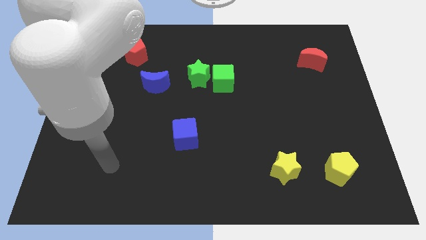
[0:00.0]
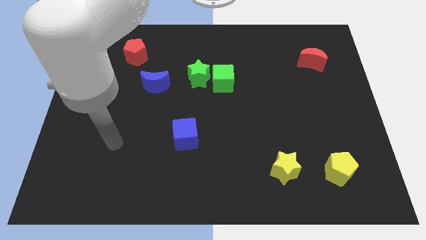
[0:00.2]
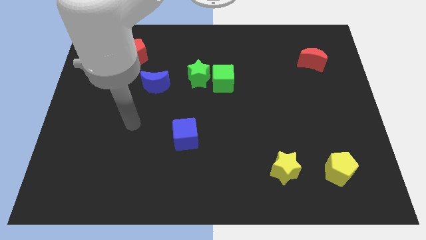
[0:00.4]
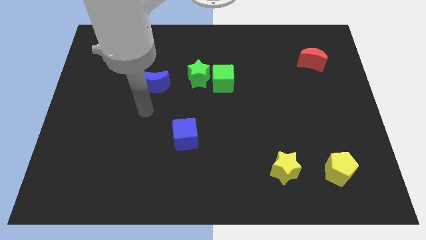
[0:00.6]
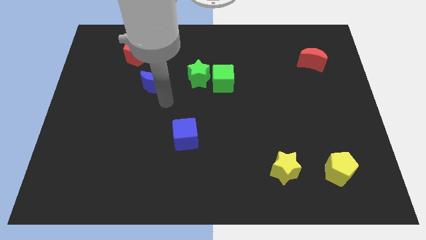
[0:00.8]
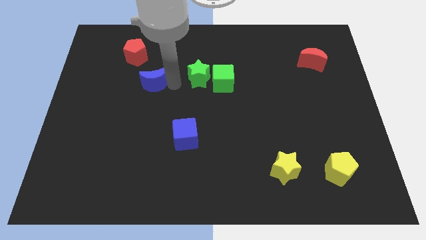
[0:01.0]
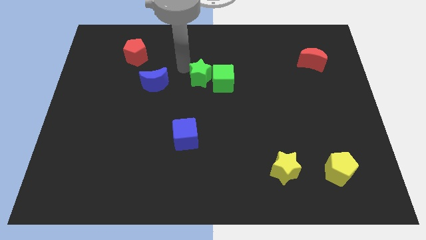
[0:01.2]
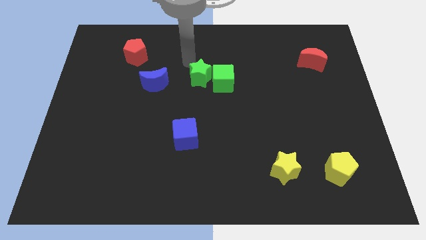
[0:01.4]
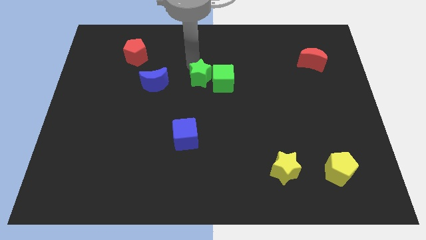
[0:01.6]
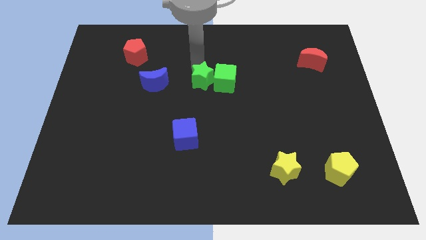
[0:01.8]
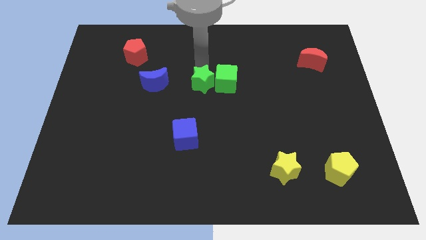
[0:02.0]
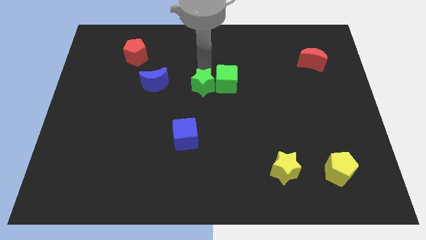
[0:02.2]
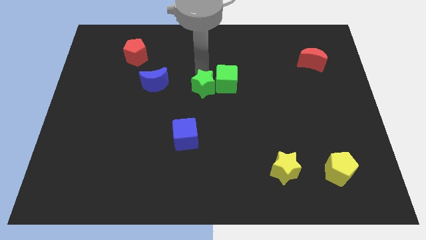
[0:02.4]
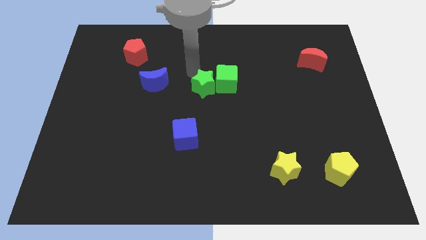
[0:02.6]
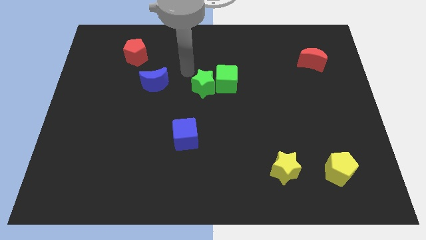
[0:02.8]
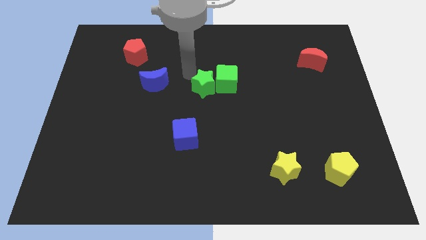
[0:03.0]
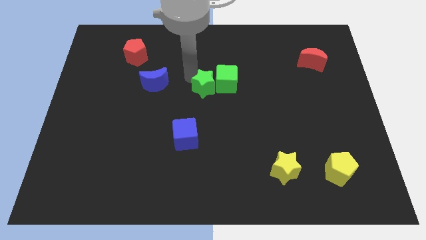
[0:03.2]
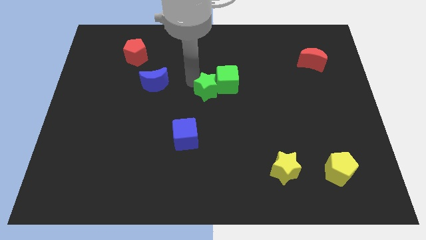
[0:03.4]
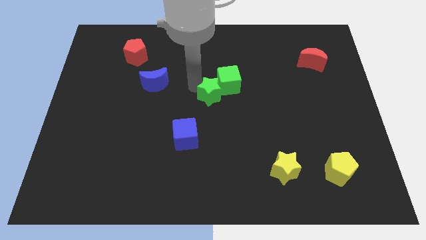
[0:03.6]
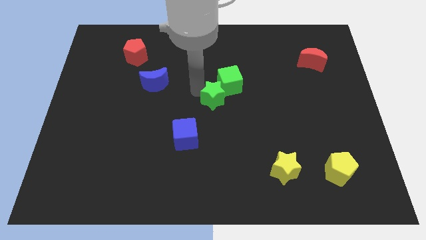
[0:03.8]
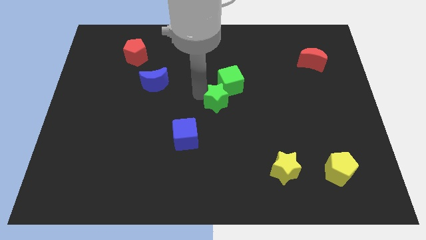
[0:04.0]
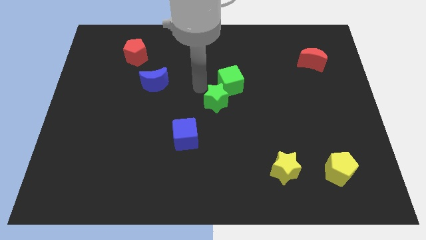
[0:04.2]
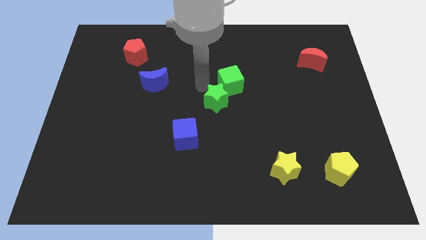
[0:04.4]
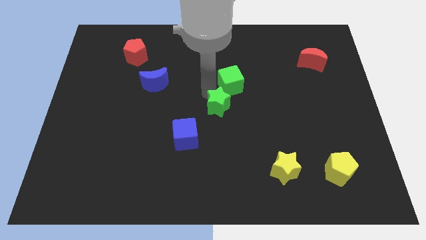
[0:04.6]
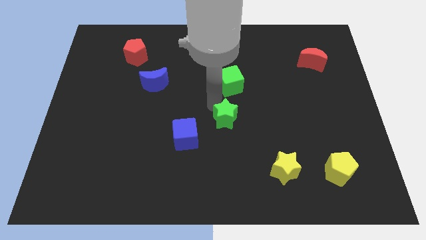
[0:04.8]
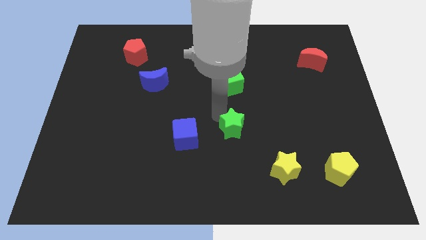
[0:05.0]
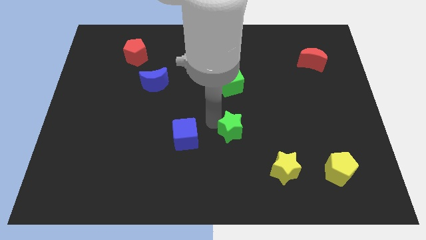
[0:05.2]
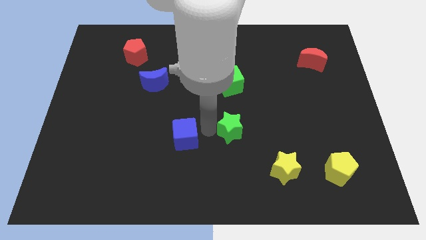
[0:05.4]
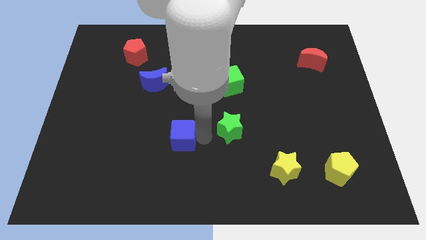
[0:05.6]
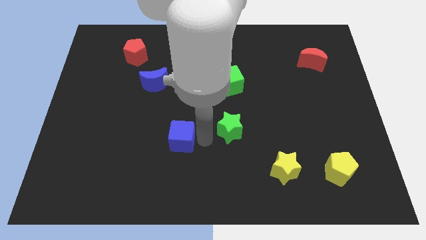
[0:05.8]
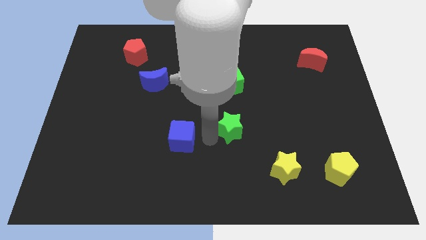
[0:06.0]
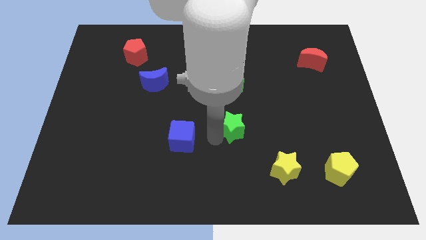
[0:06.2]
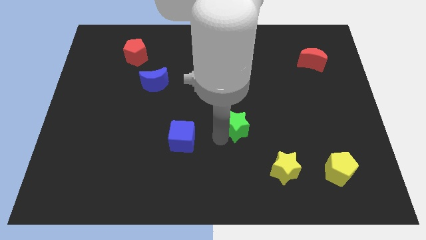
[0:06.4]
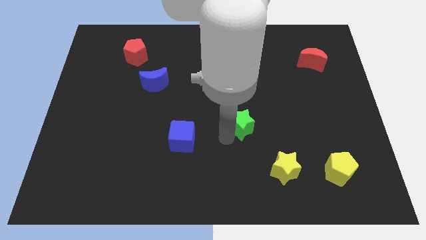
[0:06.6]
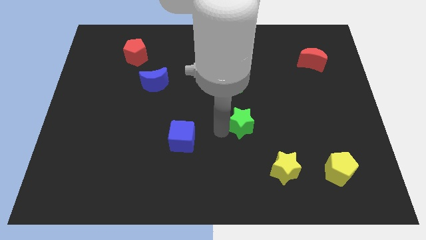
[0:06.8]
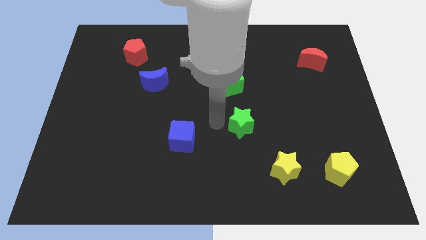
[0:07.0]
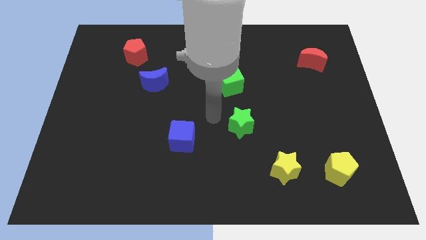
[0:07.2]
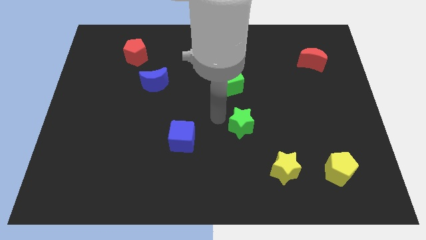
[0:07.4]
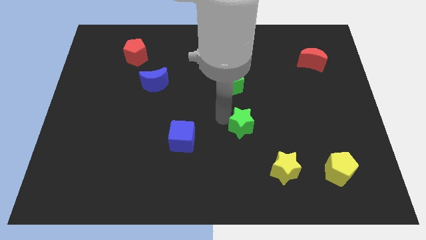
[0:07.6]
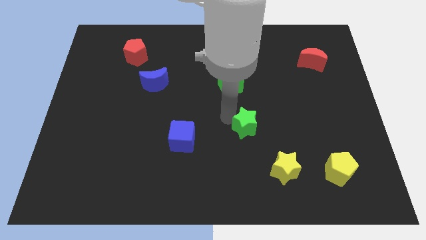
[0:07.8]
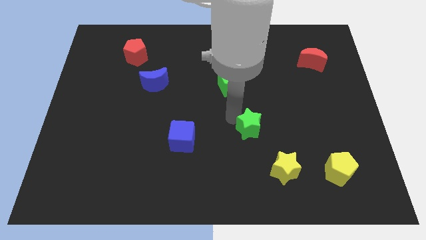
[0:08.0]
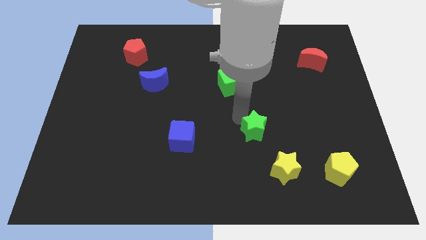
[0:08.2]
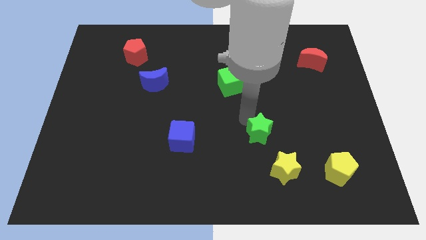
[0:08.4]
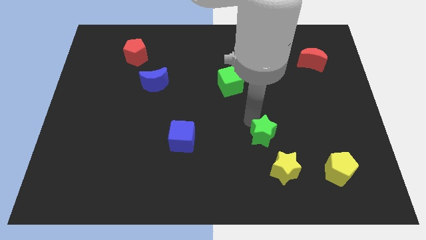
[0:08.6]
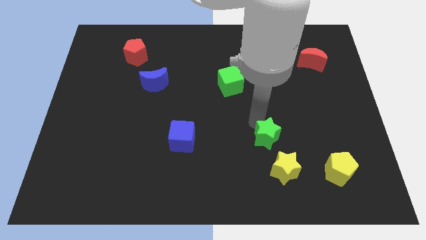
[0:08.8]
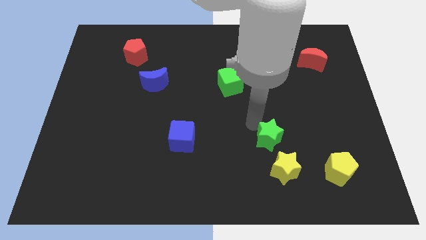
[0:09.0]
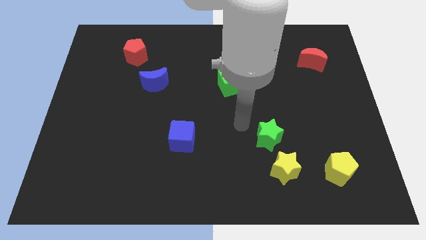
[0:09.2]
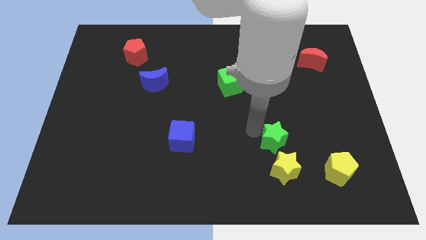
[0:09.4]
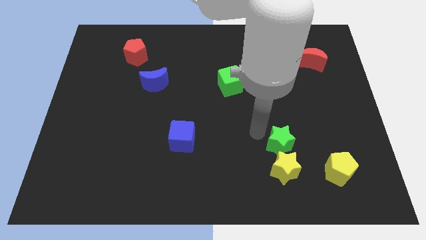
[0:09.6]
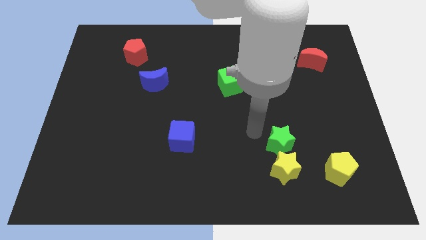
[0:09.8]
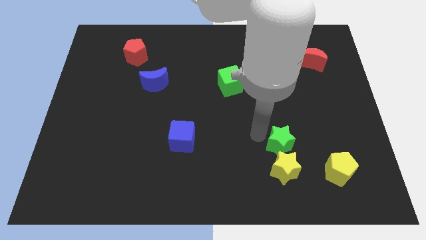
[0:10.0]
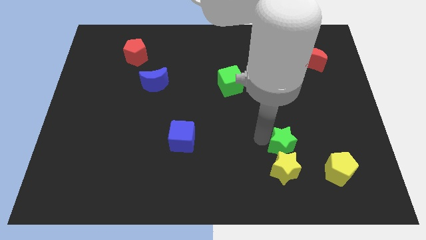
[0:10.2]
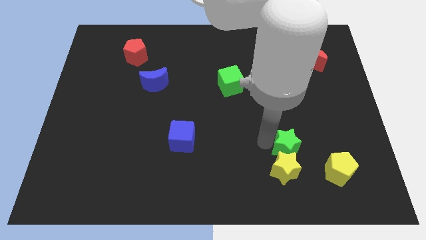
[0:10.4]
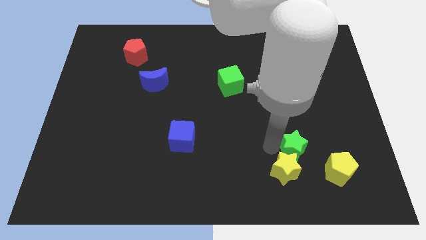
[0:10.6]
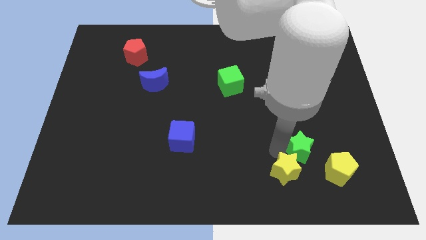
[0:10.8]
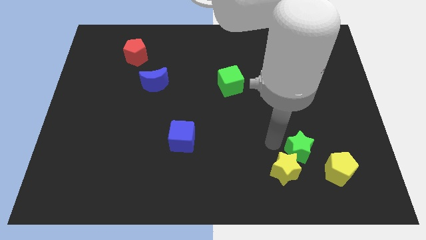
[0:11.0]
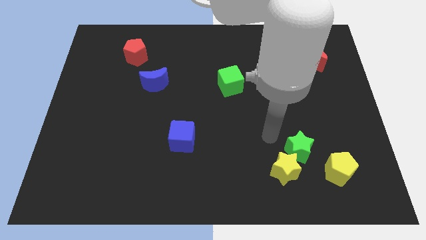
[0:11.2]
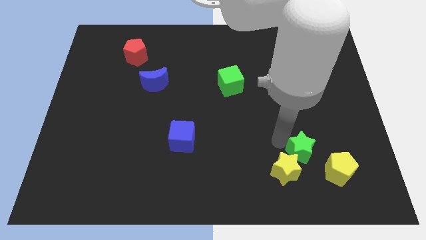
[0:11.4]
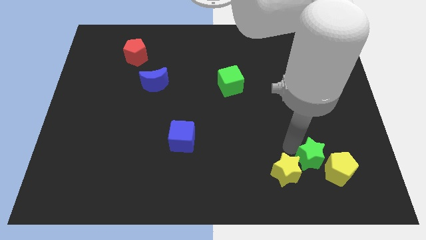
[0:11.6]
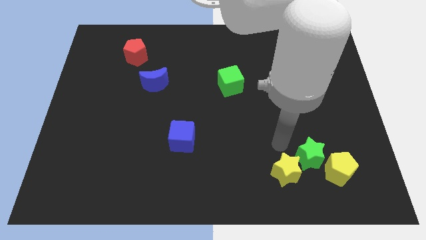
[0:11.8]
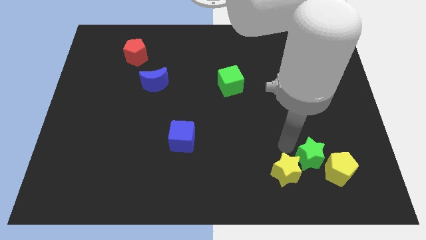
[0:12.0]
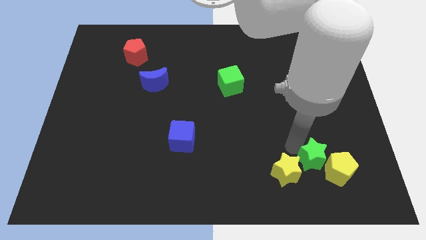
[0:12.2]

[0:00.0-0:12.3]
slide the green star to the yellow pentagon
